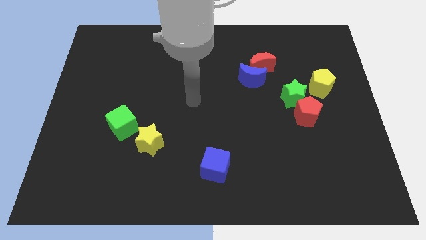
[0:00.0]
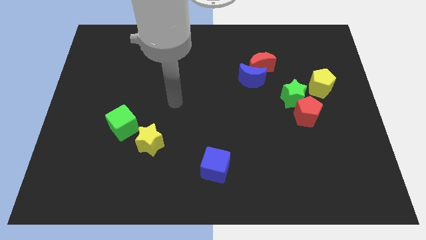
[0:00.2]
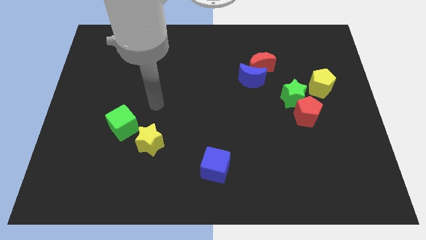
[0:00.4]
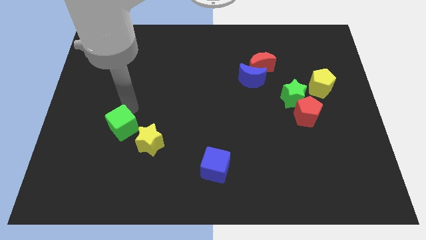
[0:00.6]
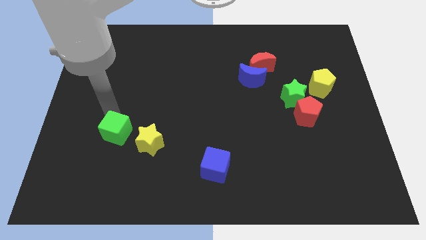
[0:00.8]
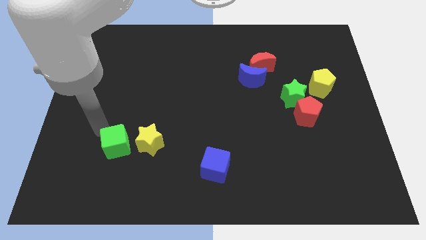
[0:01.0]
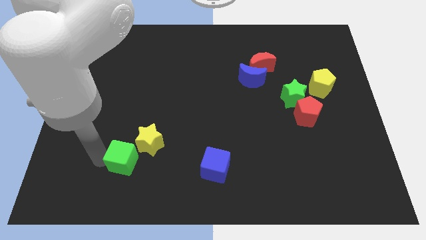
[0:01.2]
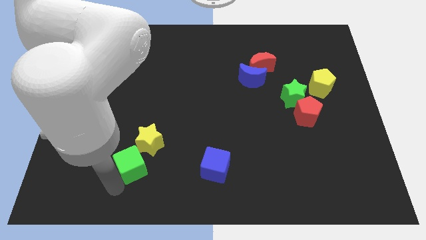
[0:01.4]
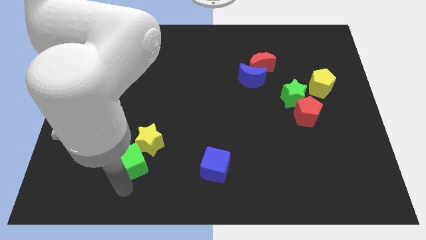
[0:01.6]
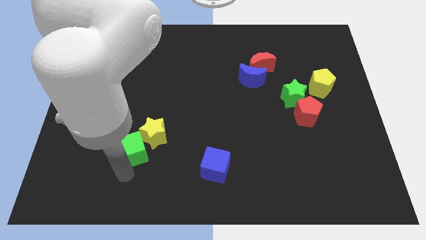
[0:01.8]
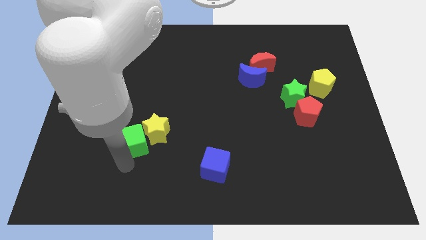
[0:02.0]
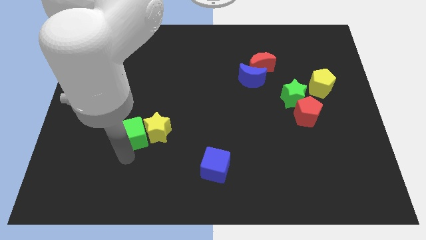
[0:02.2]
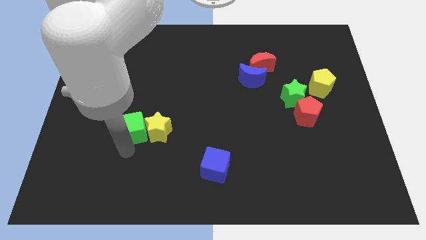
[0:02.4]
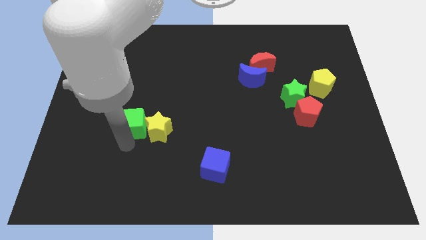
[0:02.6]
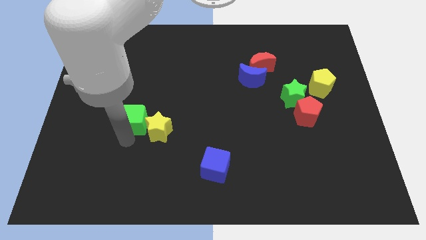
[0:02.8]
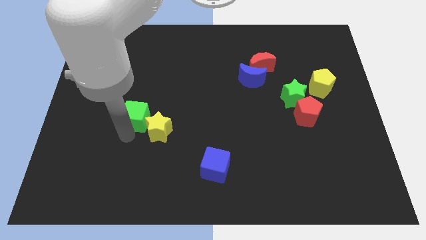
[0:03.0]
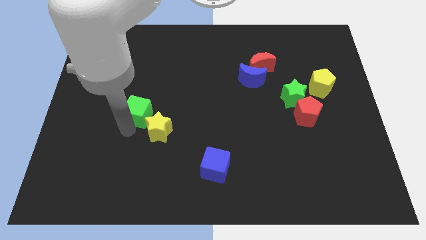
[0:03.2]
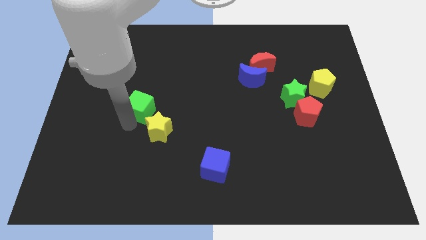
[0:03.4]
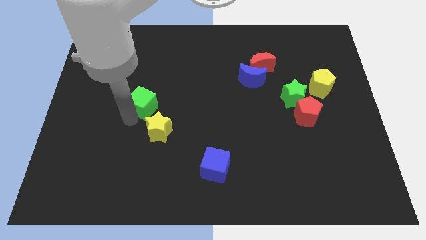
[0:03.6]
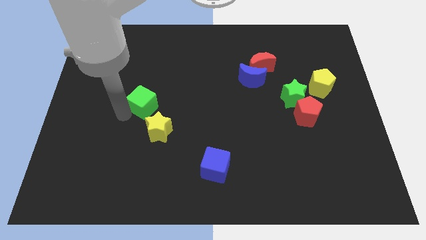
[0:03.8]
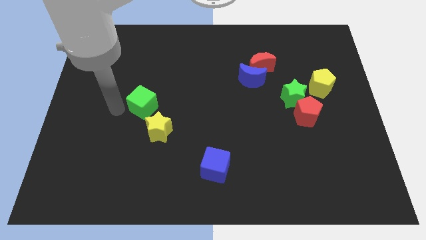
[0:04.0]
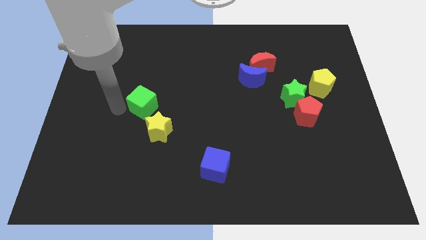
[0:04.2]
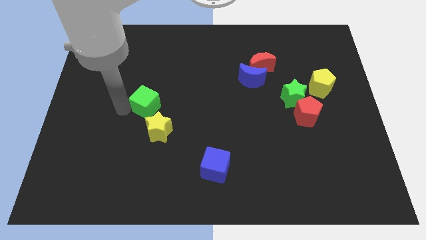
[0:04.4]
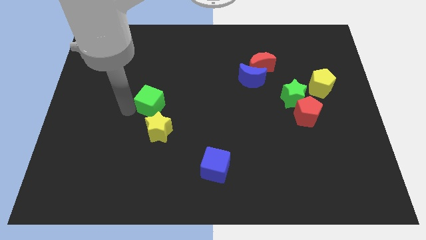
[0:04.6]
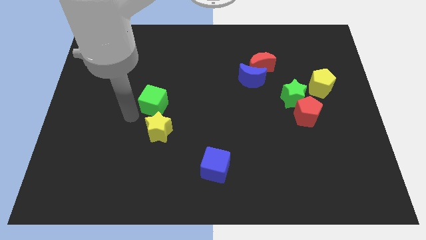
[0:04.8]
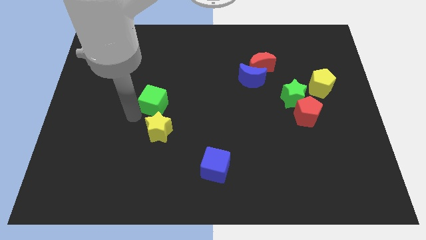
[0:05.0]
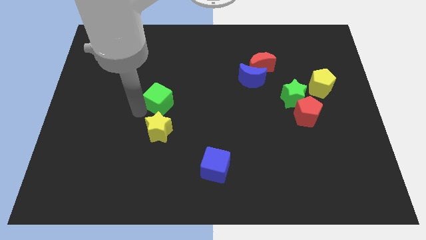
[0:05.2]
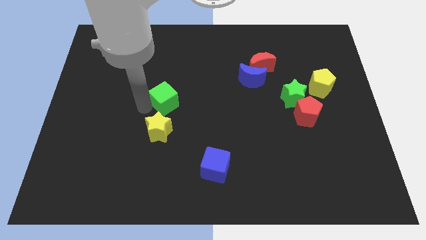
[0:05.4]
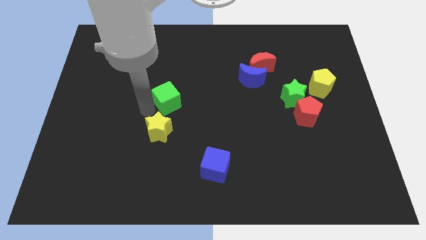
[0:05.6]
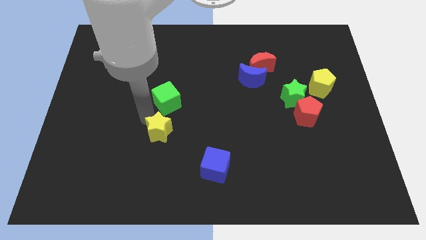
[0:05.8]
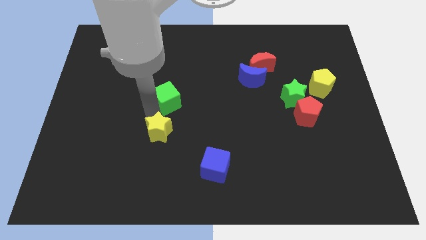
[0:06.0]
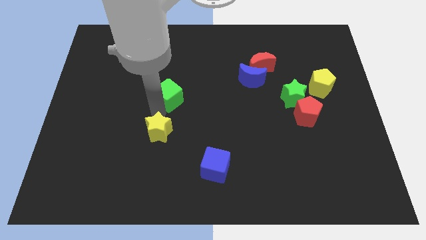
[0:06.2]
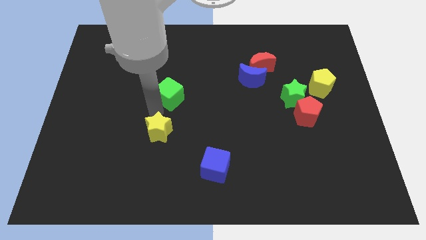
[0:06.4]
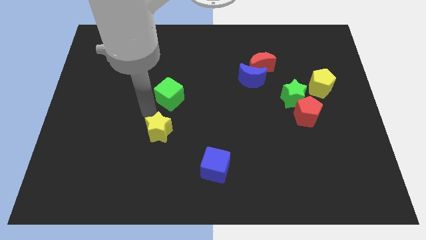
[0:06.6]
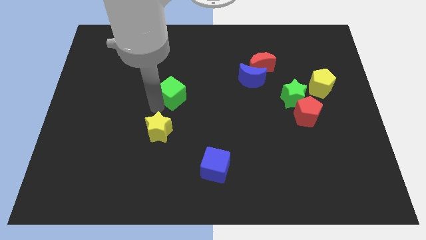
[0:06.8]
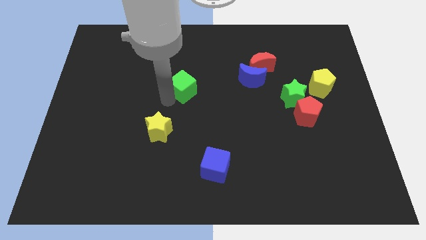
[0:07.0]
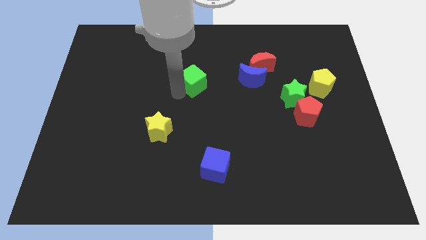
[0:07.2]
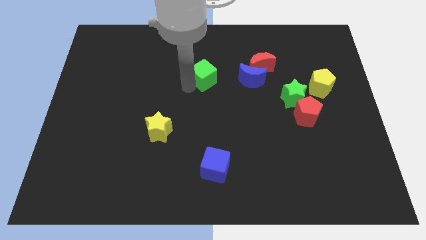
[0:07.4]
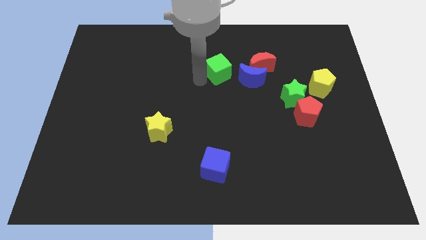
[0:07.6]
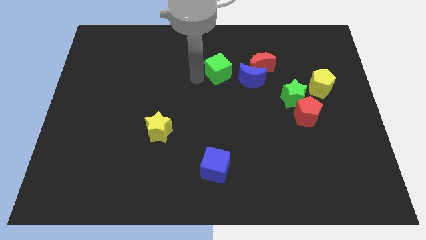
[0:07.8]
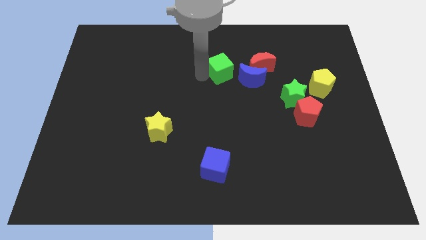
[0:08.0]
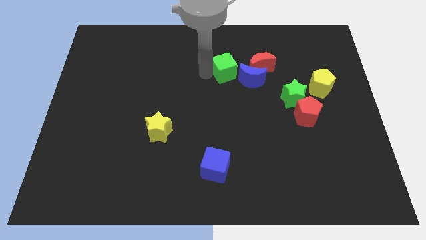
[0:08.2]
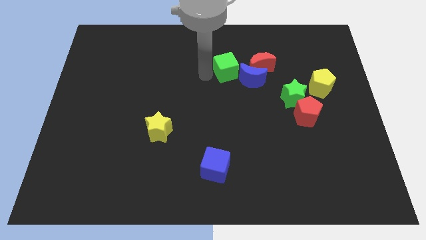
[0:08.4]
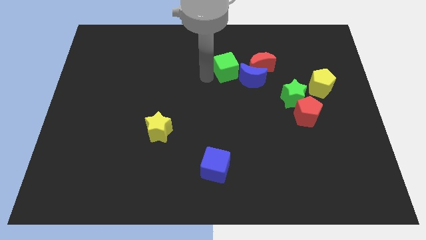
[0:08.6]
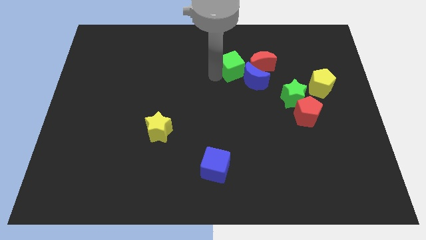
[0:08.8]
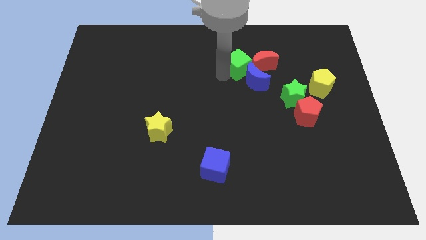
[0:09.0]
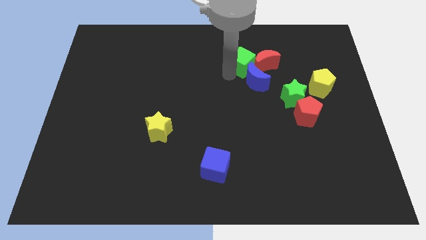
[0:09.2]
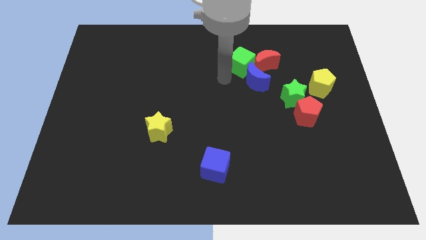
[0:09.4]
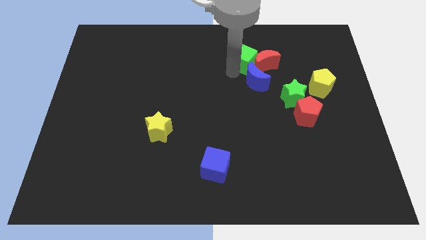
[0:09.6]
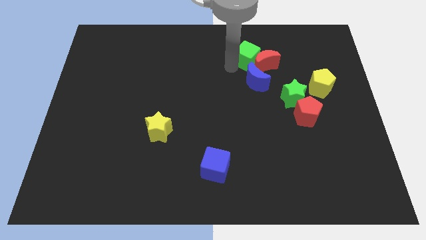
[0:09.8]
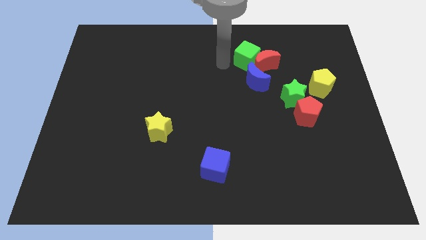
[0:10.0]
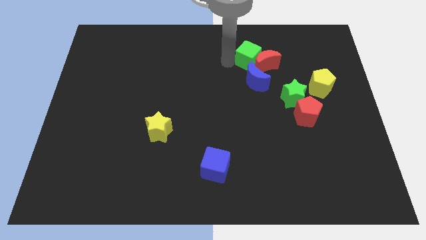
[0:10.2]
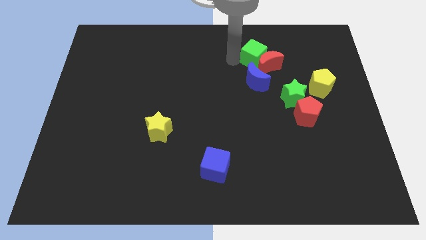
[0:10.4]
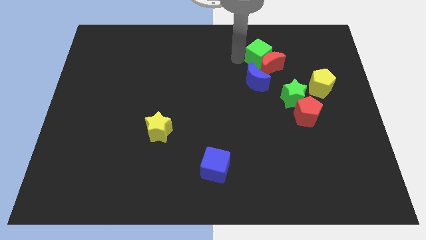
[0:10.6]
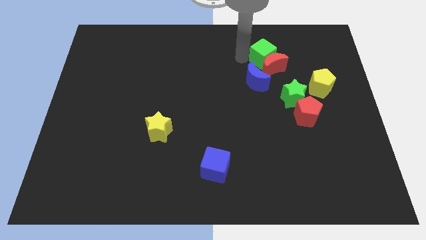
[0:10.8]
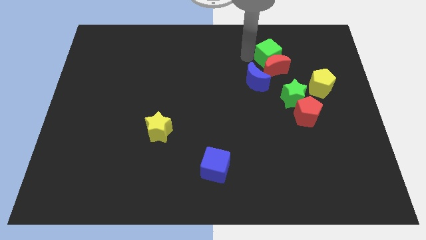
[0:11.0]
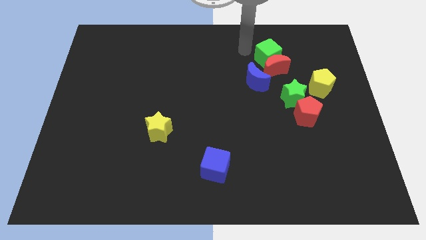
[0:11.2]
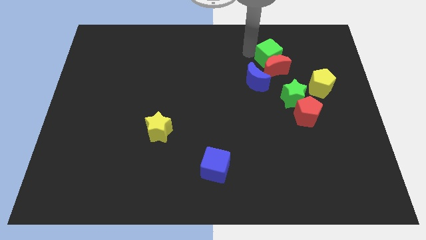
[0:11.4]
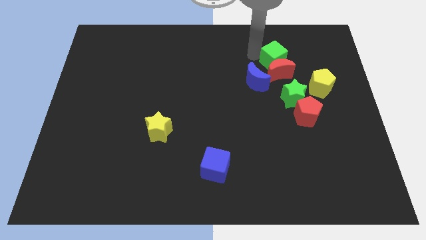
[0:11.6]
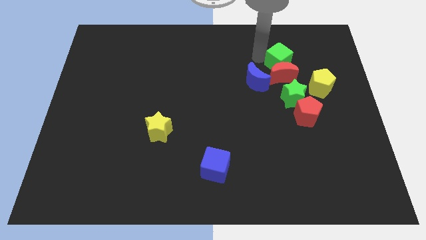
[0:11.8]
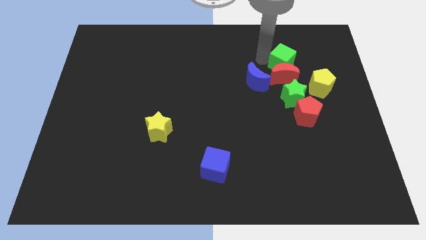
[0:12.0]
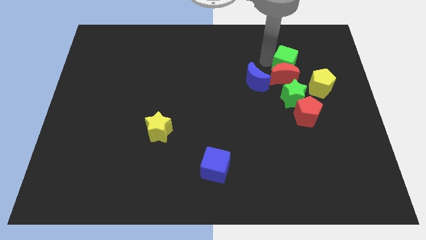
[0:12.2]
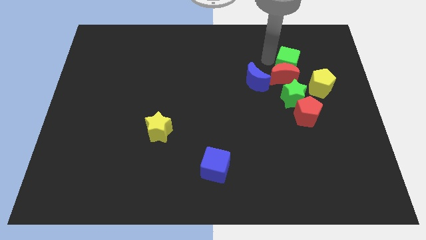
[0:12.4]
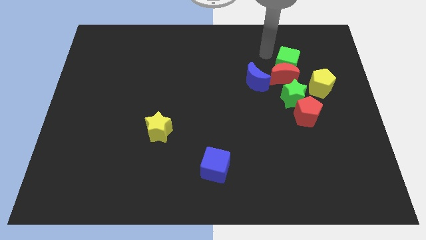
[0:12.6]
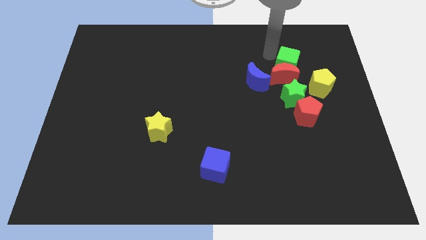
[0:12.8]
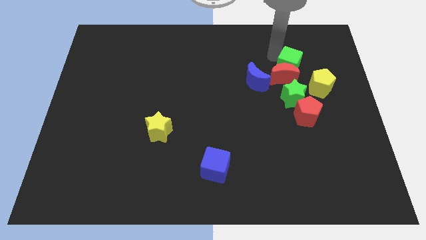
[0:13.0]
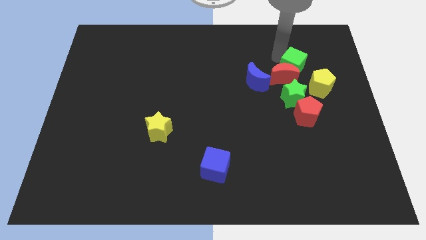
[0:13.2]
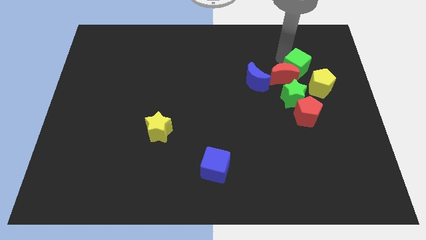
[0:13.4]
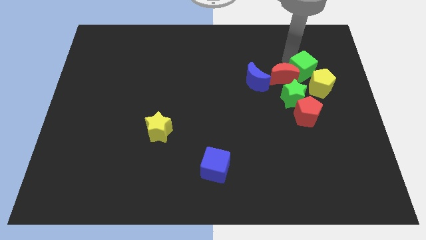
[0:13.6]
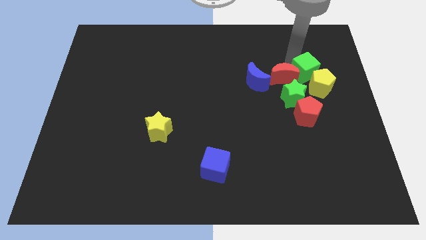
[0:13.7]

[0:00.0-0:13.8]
move the green cube close to the yellow pentagon

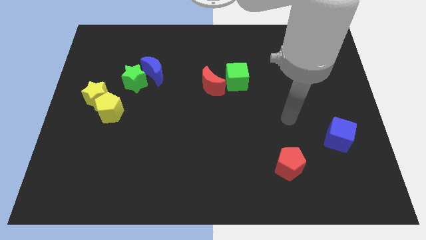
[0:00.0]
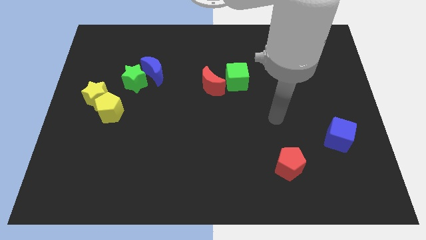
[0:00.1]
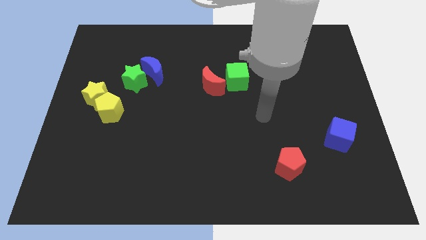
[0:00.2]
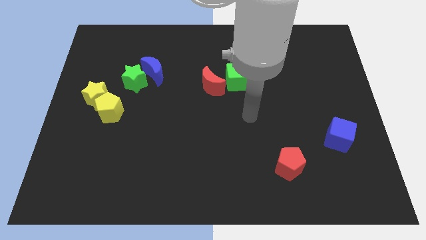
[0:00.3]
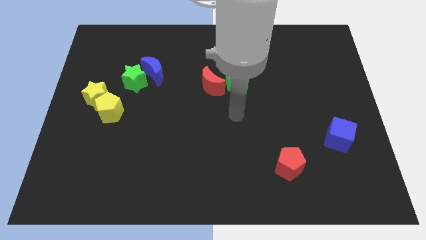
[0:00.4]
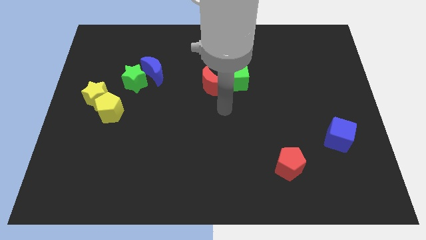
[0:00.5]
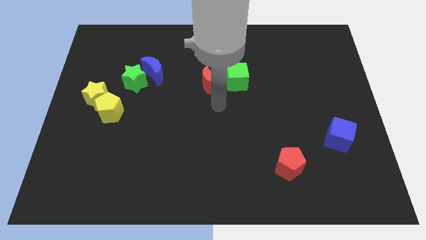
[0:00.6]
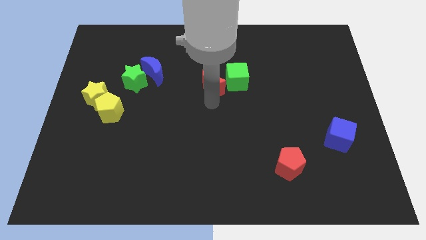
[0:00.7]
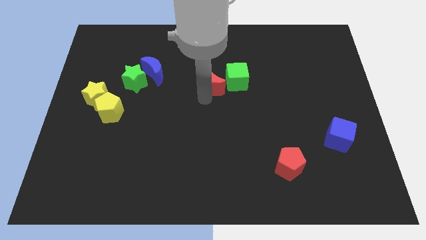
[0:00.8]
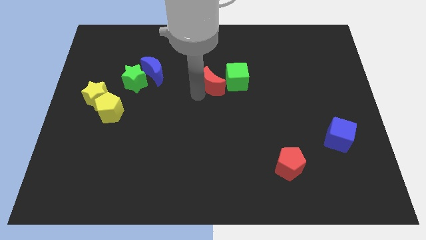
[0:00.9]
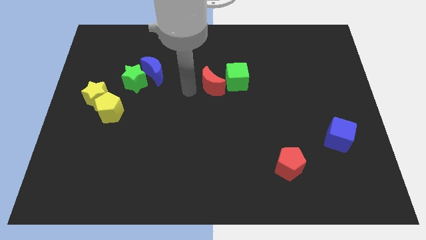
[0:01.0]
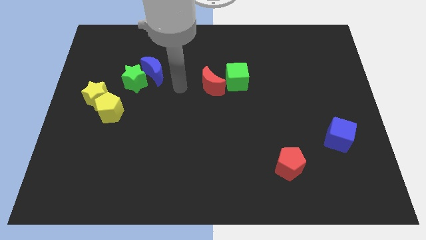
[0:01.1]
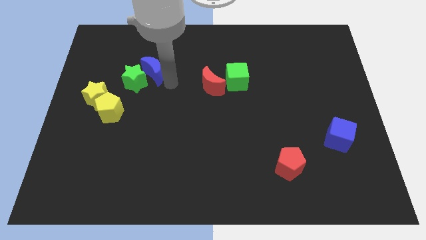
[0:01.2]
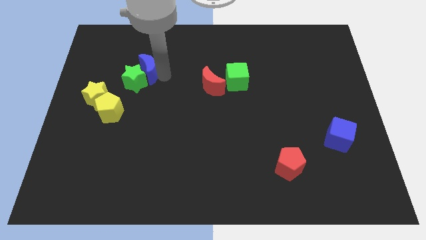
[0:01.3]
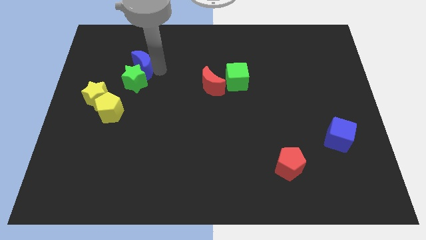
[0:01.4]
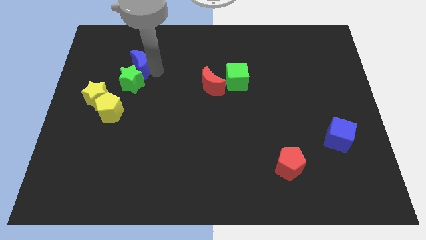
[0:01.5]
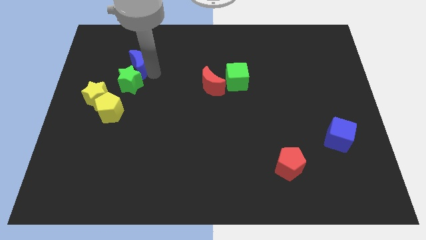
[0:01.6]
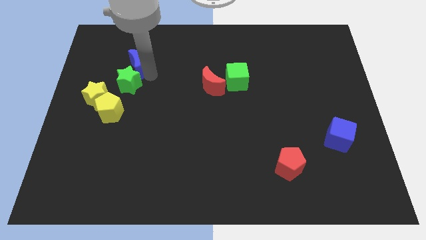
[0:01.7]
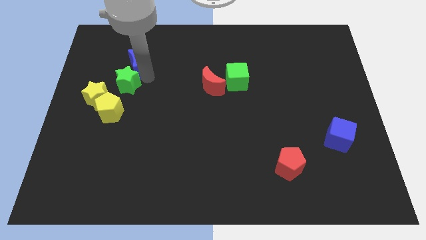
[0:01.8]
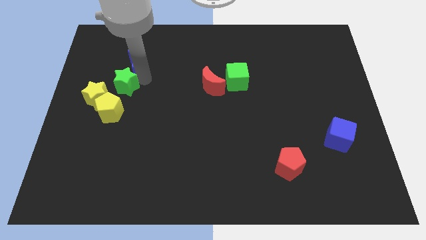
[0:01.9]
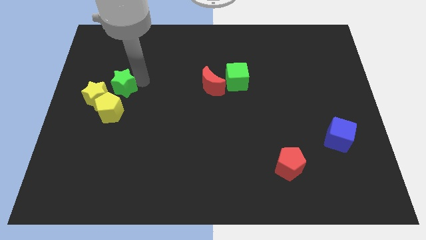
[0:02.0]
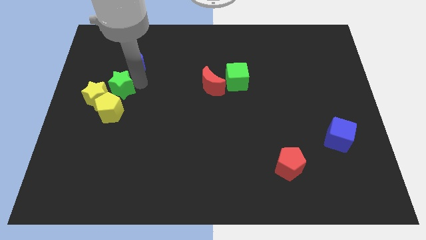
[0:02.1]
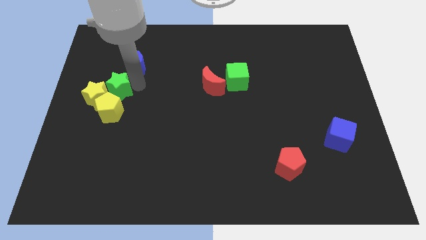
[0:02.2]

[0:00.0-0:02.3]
move the green star next to the yellow star
